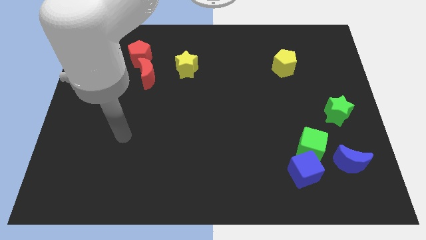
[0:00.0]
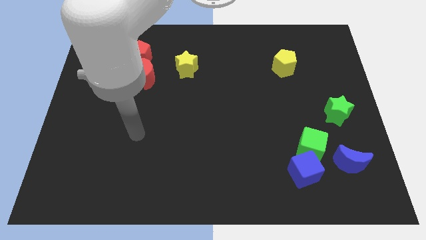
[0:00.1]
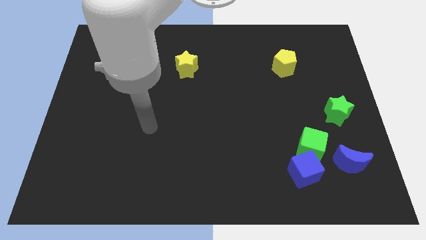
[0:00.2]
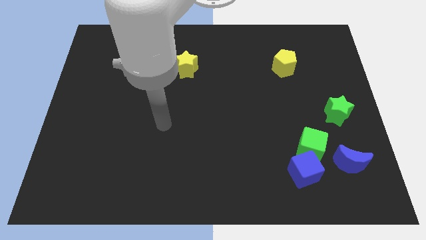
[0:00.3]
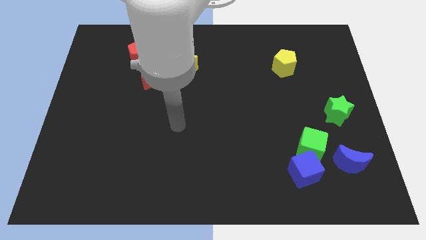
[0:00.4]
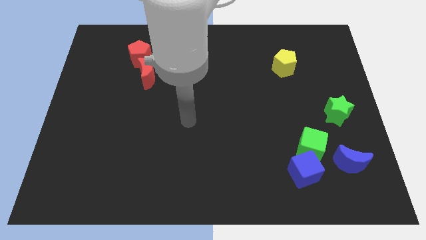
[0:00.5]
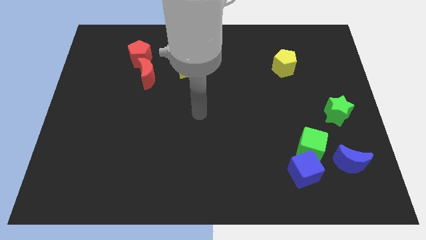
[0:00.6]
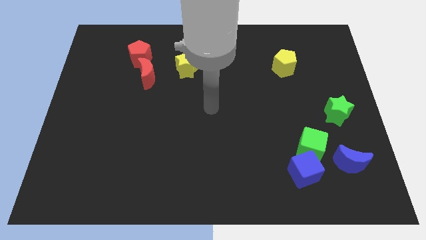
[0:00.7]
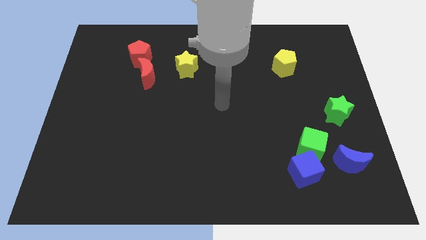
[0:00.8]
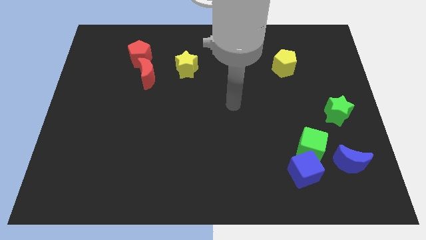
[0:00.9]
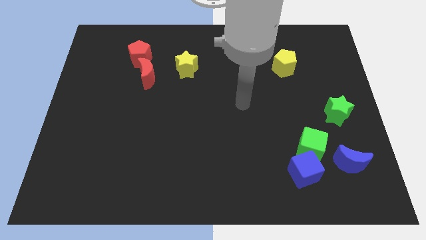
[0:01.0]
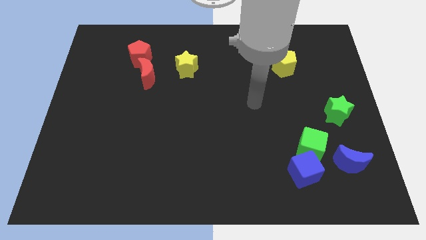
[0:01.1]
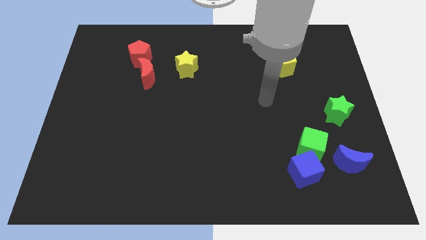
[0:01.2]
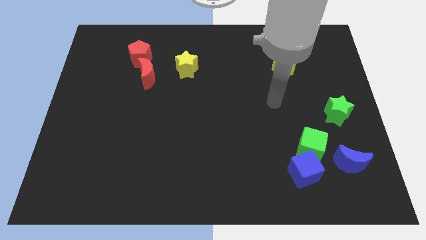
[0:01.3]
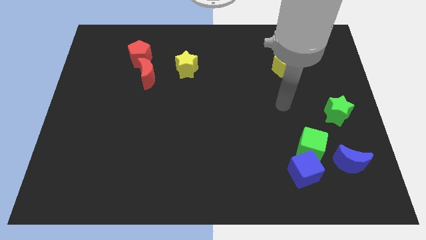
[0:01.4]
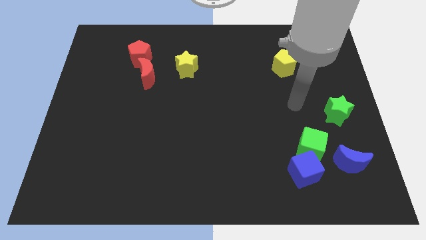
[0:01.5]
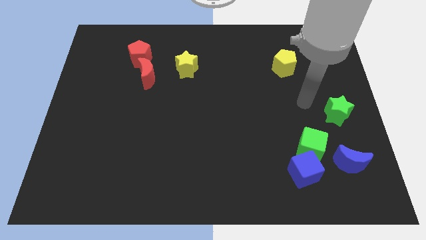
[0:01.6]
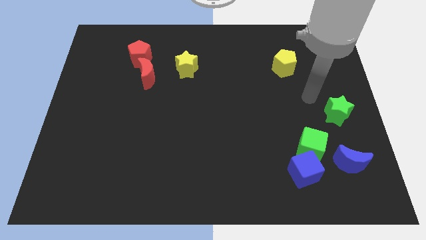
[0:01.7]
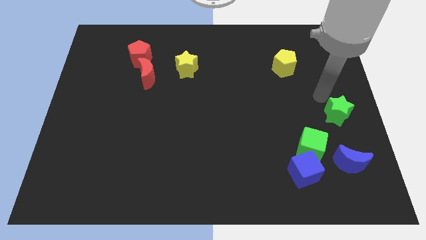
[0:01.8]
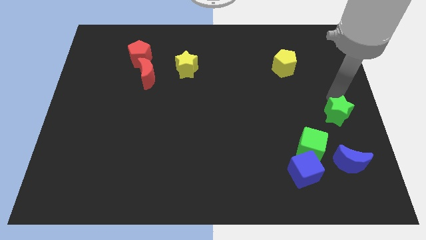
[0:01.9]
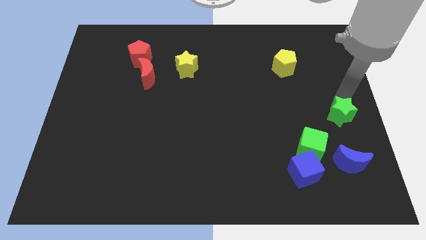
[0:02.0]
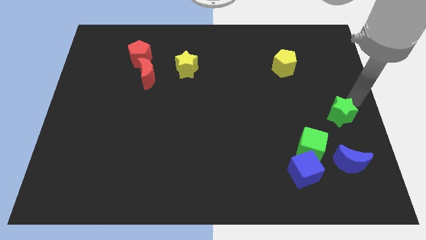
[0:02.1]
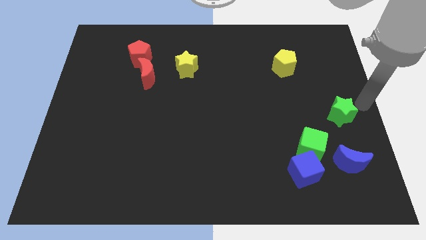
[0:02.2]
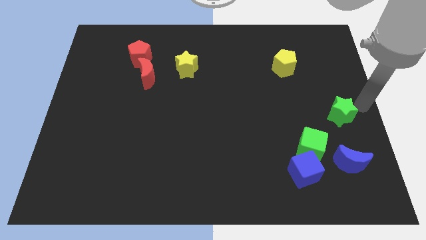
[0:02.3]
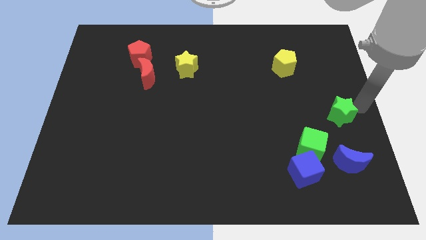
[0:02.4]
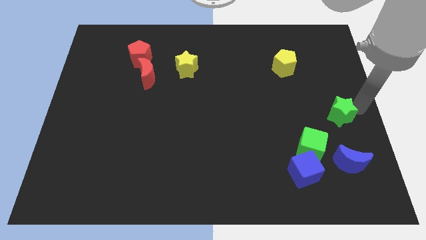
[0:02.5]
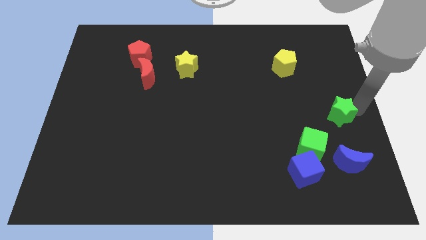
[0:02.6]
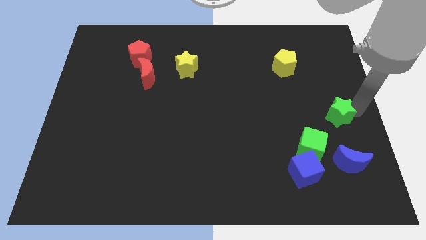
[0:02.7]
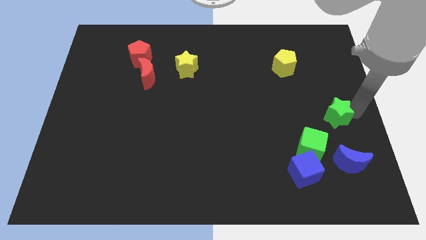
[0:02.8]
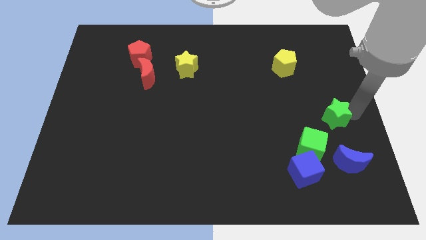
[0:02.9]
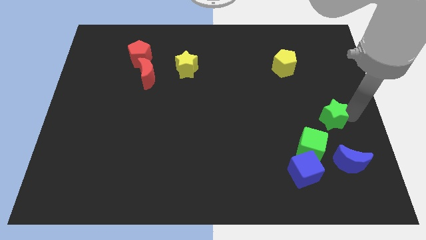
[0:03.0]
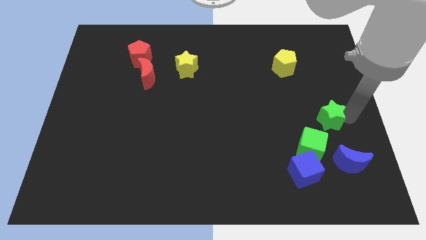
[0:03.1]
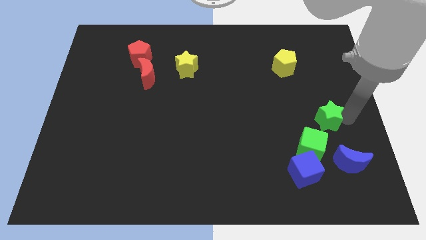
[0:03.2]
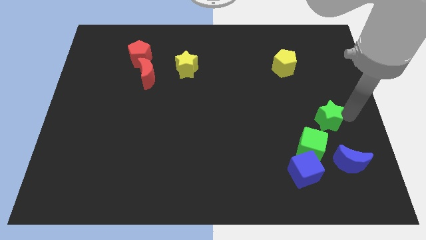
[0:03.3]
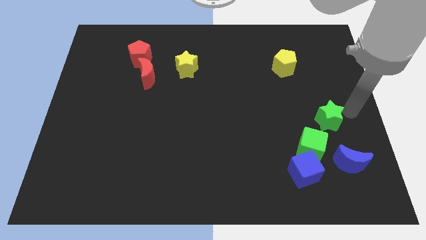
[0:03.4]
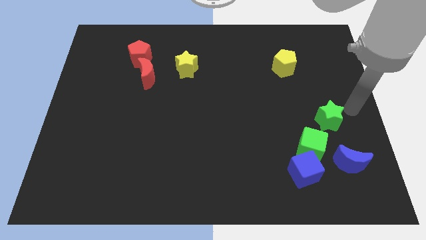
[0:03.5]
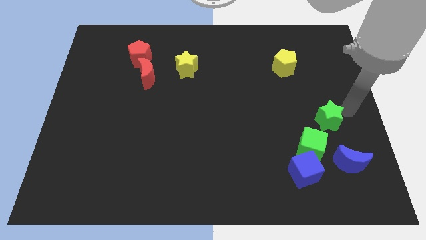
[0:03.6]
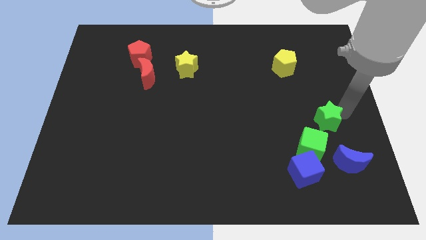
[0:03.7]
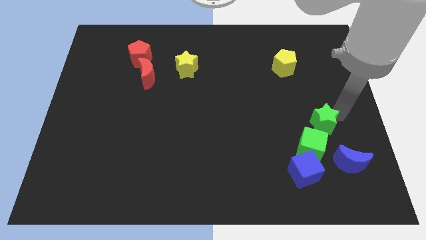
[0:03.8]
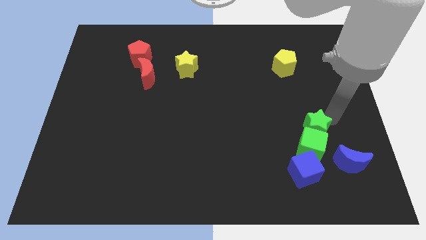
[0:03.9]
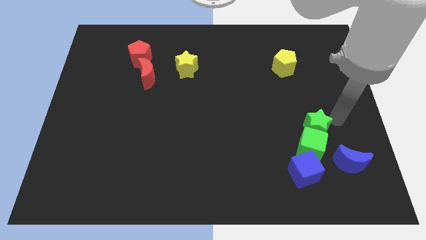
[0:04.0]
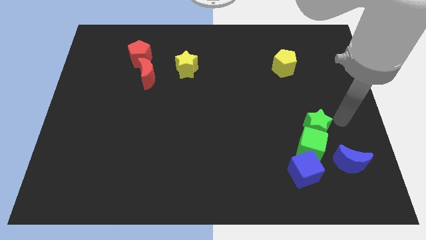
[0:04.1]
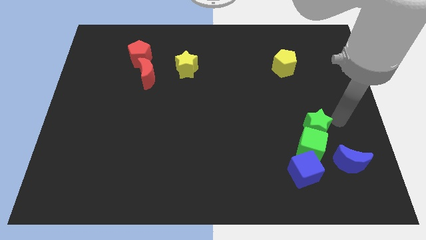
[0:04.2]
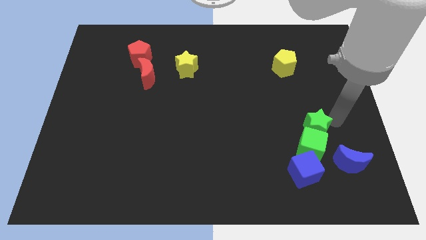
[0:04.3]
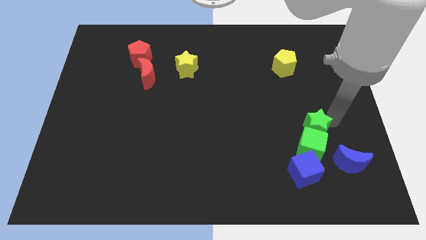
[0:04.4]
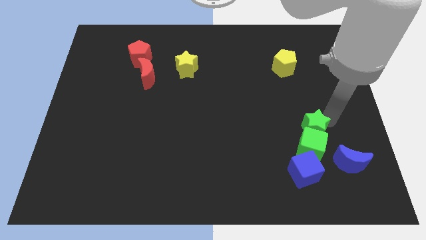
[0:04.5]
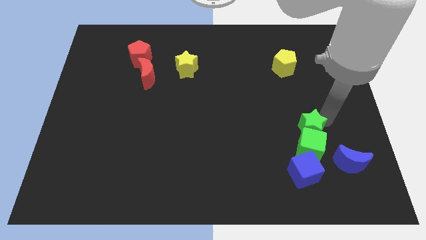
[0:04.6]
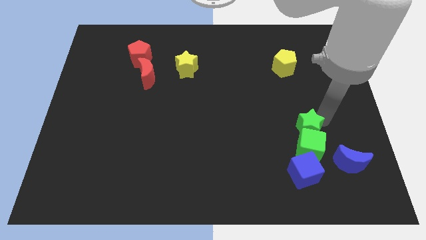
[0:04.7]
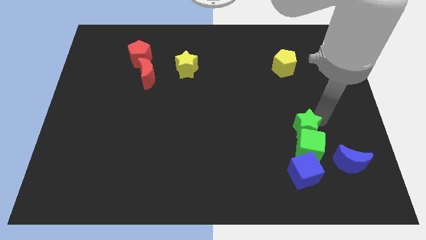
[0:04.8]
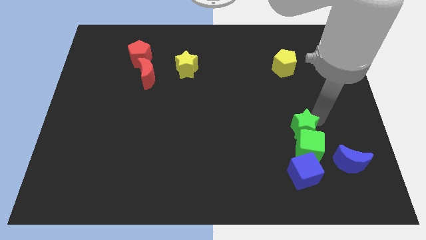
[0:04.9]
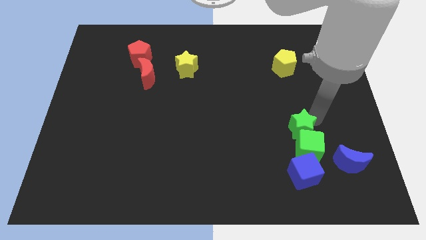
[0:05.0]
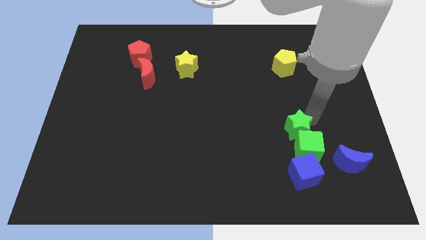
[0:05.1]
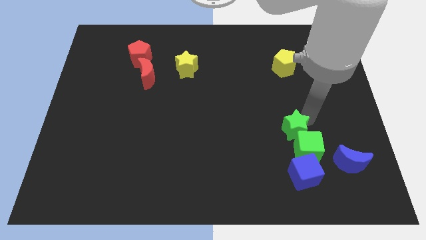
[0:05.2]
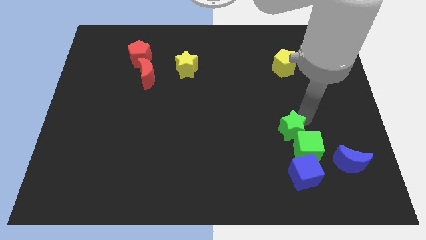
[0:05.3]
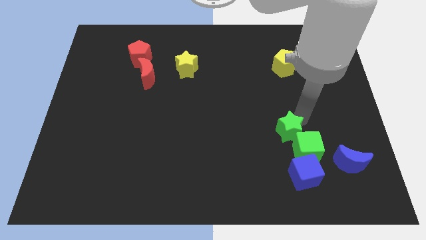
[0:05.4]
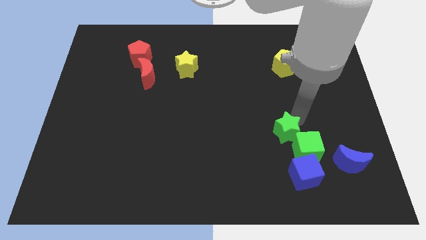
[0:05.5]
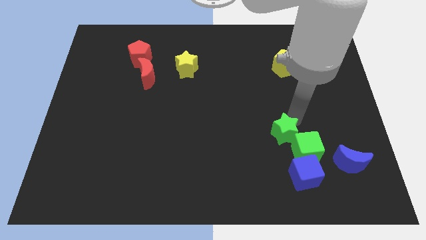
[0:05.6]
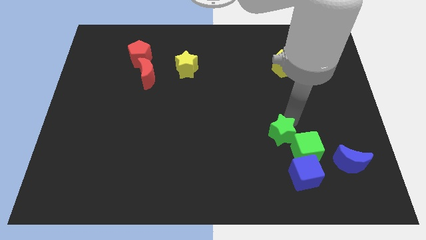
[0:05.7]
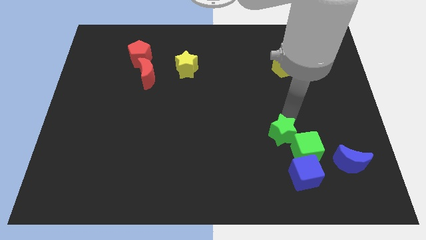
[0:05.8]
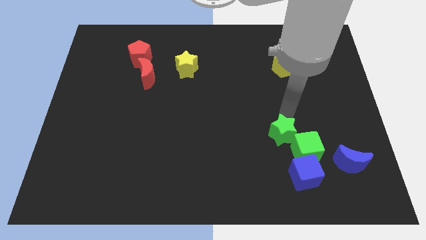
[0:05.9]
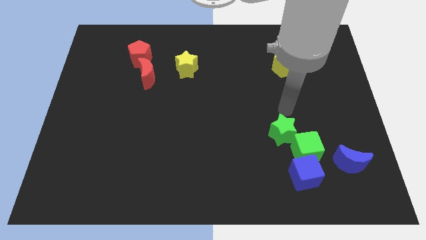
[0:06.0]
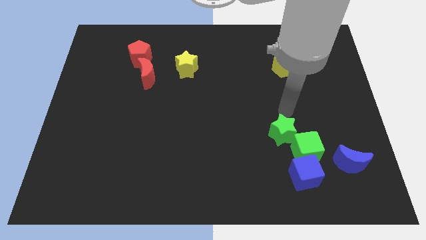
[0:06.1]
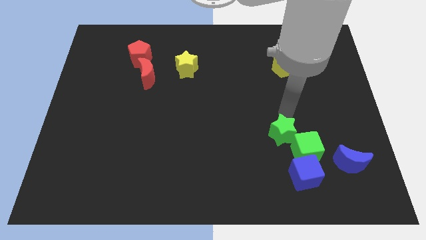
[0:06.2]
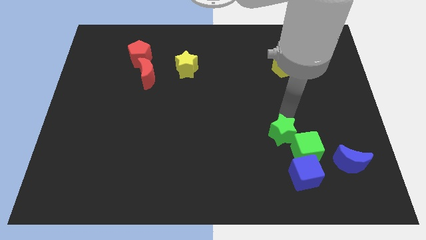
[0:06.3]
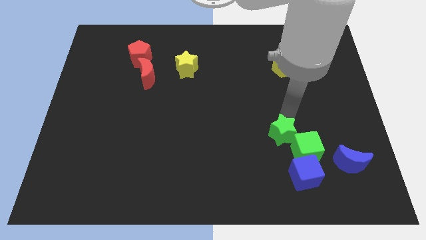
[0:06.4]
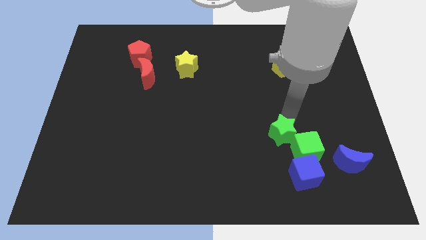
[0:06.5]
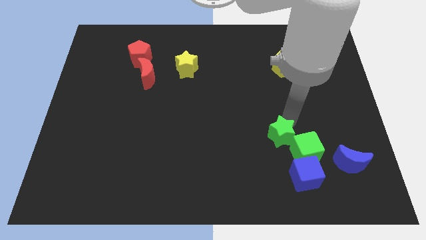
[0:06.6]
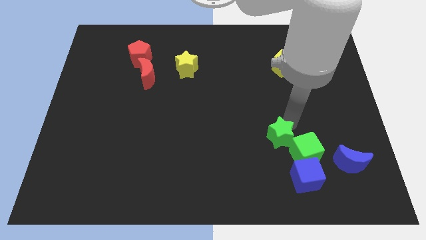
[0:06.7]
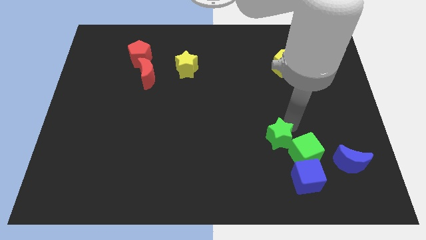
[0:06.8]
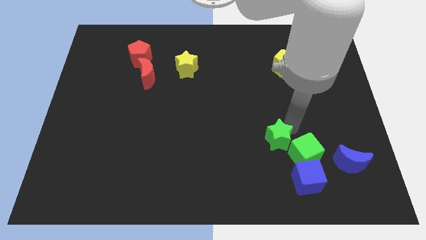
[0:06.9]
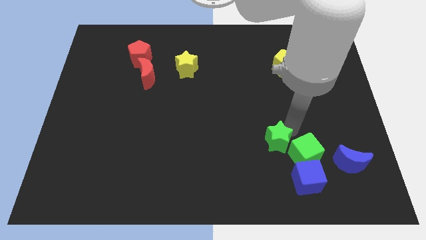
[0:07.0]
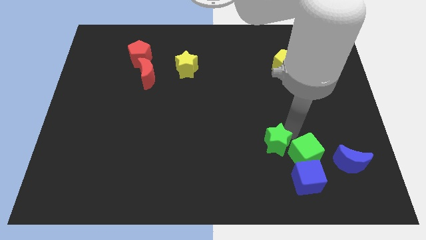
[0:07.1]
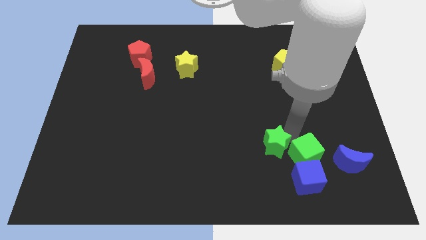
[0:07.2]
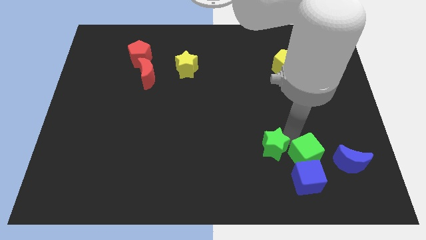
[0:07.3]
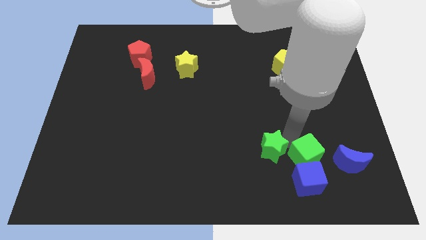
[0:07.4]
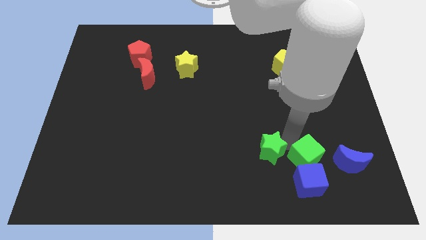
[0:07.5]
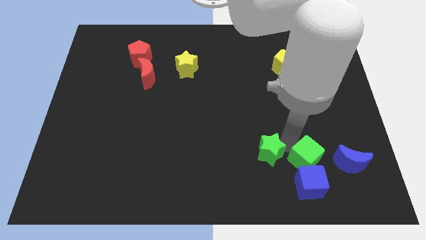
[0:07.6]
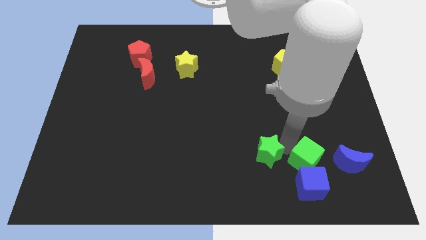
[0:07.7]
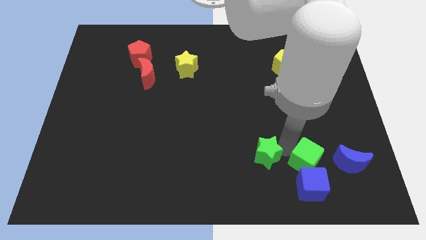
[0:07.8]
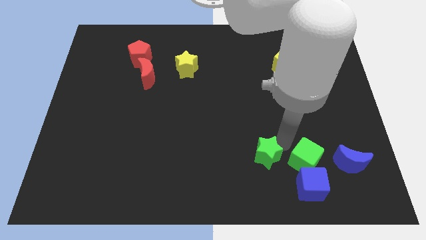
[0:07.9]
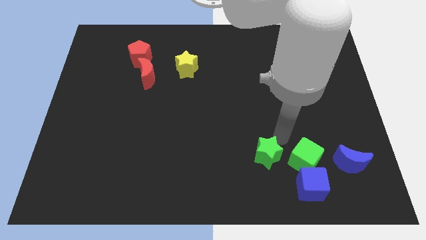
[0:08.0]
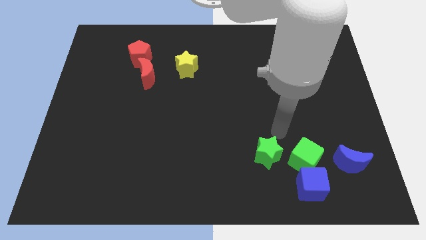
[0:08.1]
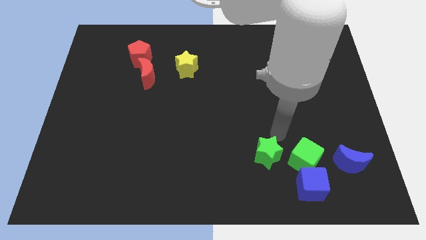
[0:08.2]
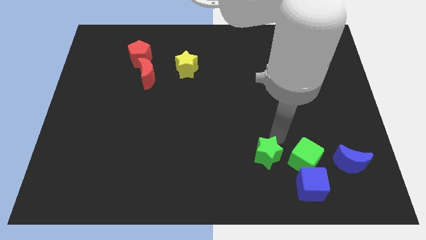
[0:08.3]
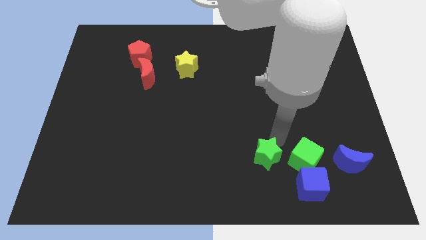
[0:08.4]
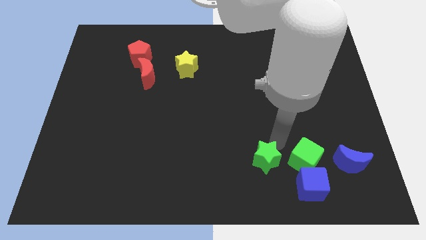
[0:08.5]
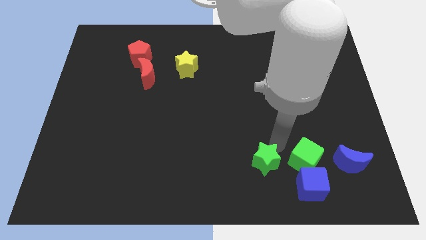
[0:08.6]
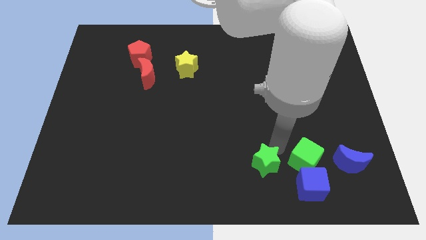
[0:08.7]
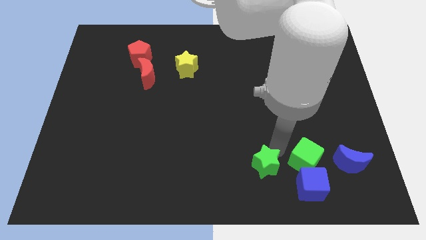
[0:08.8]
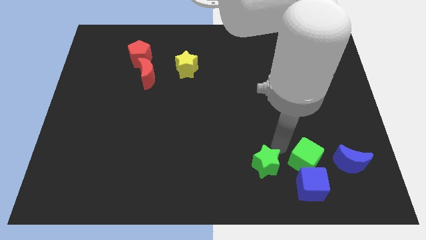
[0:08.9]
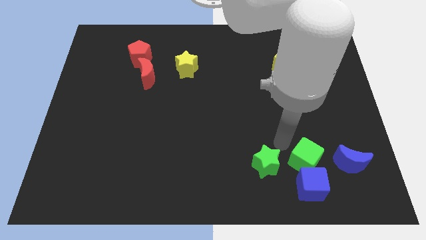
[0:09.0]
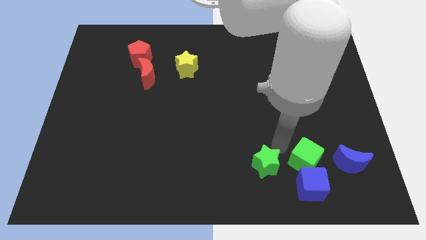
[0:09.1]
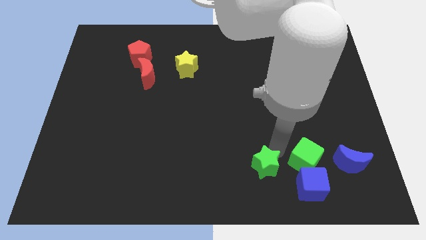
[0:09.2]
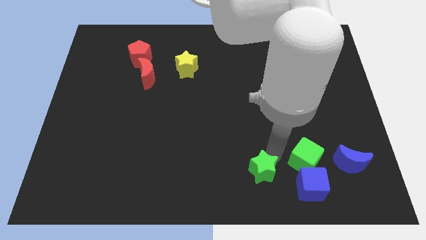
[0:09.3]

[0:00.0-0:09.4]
put the green star to the bottom
